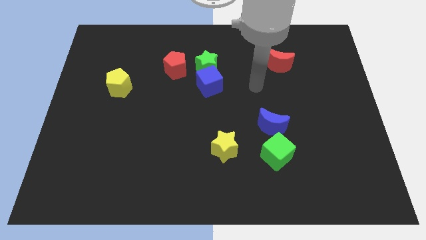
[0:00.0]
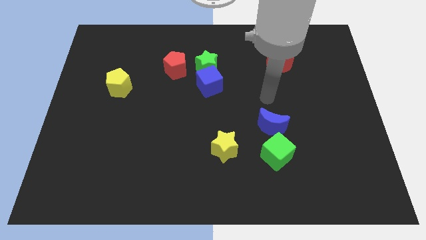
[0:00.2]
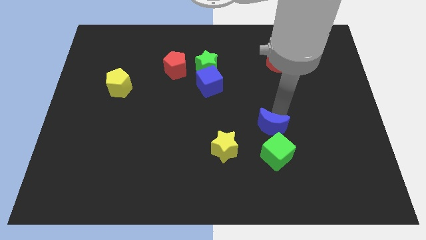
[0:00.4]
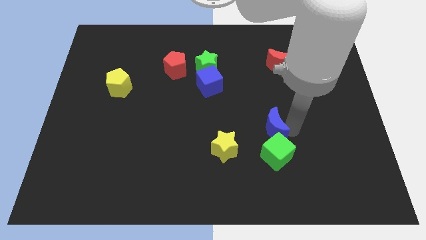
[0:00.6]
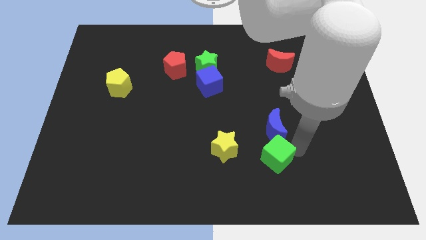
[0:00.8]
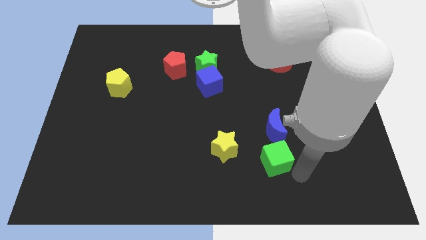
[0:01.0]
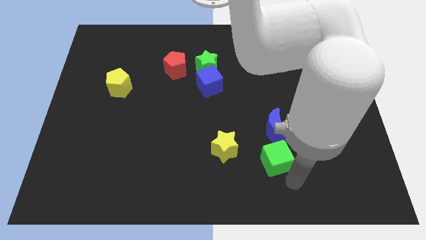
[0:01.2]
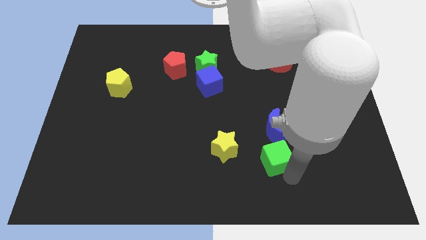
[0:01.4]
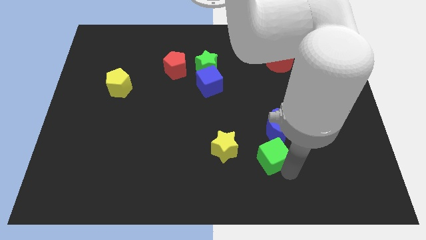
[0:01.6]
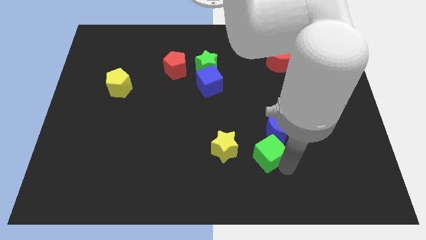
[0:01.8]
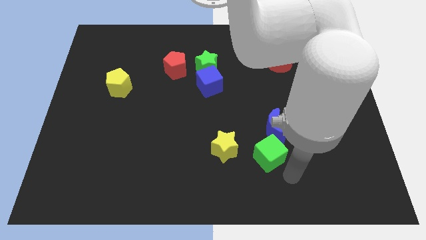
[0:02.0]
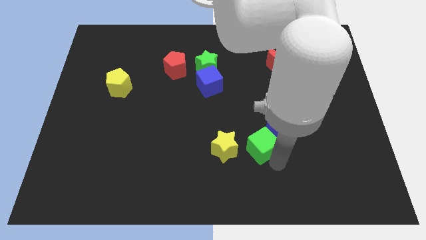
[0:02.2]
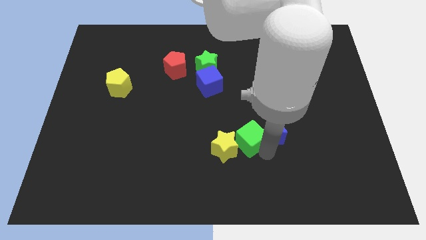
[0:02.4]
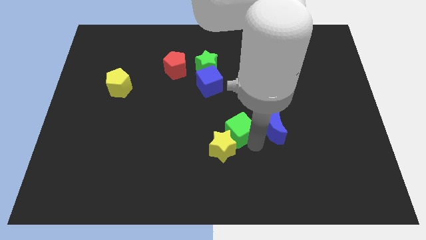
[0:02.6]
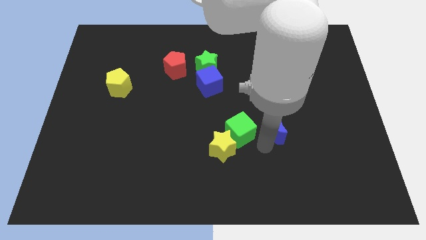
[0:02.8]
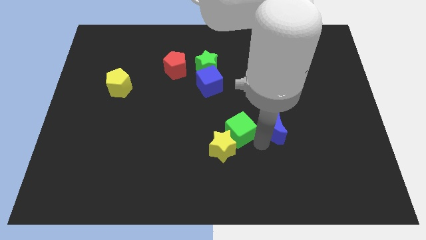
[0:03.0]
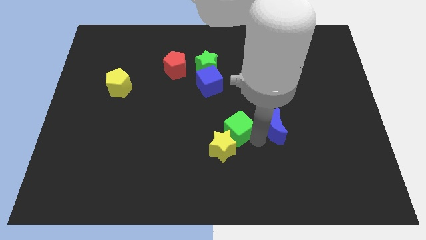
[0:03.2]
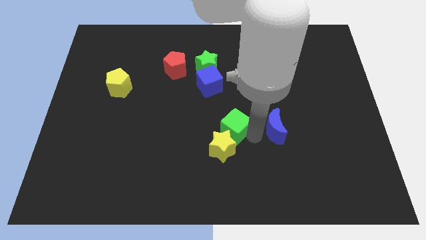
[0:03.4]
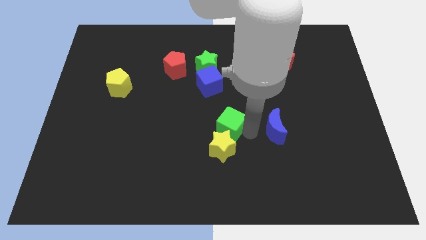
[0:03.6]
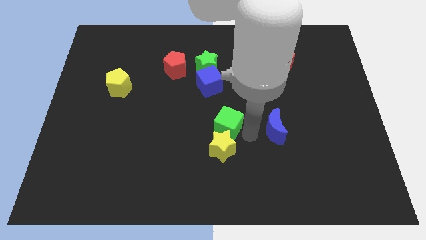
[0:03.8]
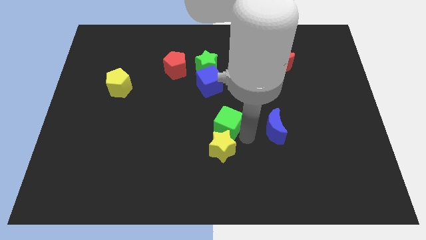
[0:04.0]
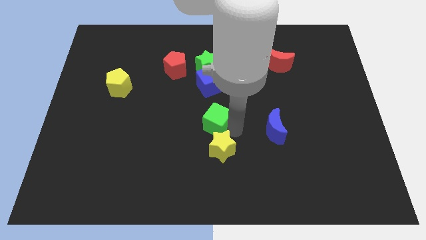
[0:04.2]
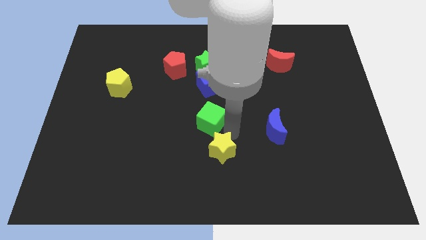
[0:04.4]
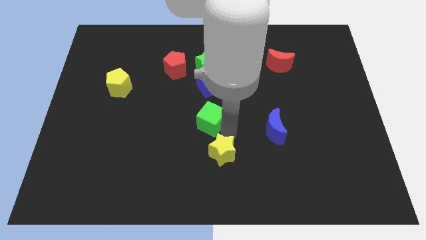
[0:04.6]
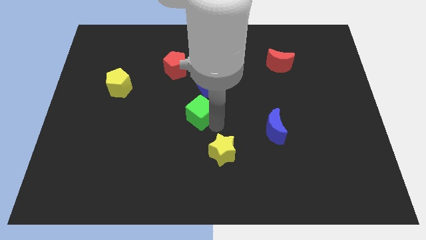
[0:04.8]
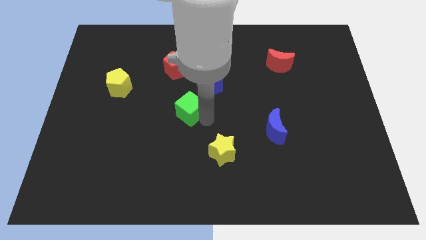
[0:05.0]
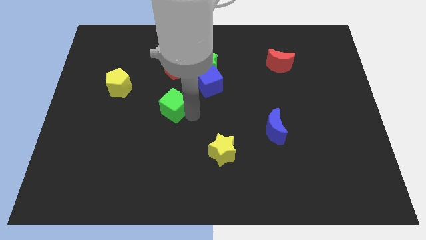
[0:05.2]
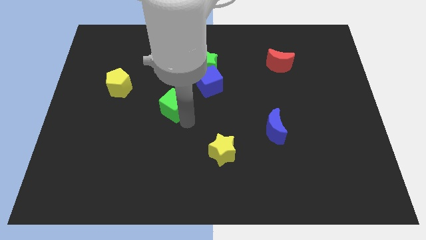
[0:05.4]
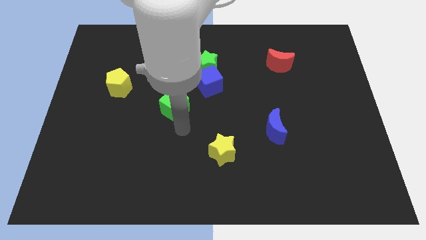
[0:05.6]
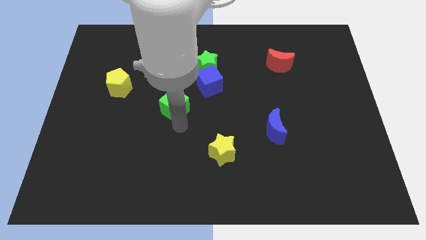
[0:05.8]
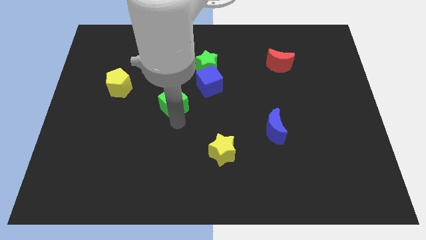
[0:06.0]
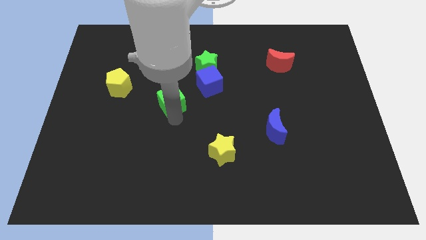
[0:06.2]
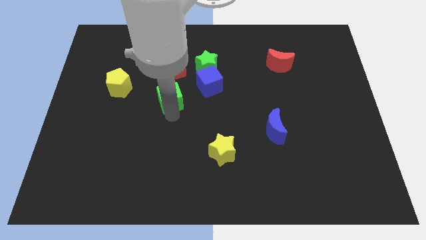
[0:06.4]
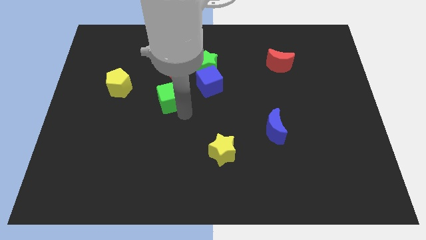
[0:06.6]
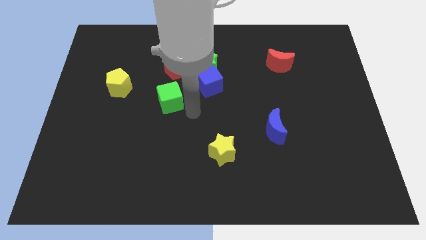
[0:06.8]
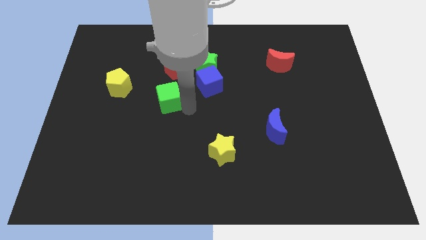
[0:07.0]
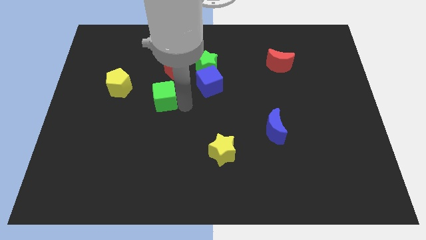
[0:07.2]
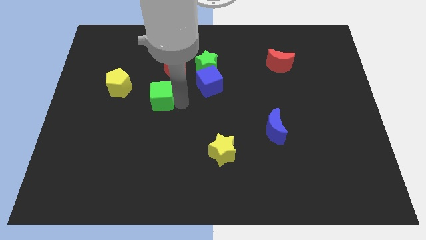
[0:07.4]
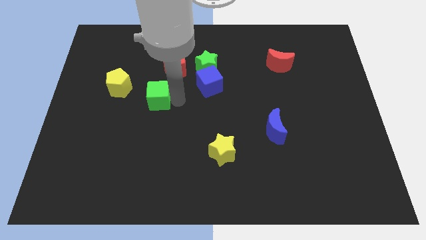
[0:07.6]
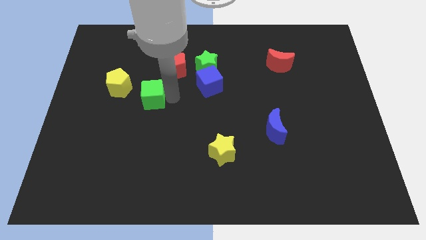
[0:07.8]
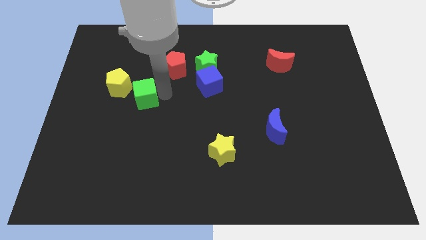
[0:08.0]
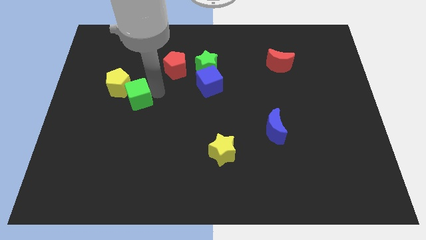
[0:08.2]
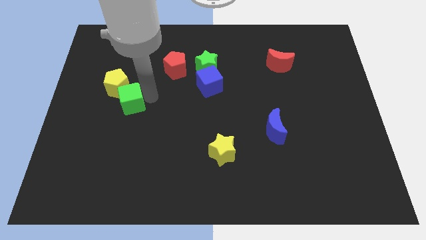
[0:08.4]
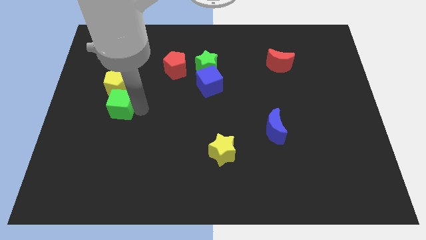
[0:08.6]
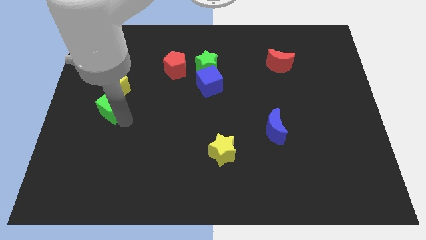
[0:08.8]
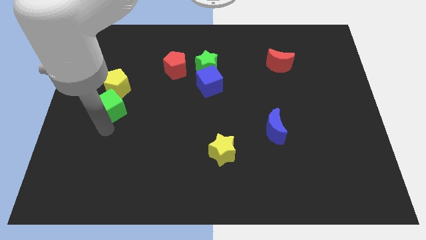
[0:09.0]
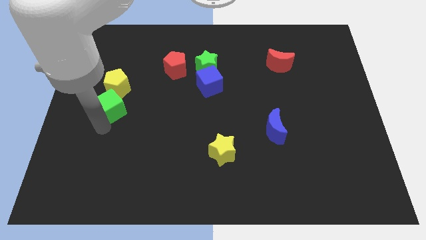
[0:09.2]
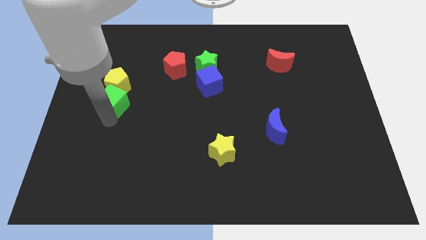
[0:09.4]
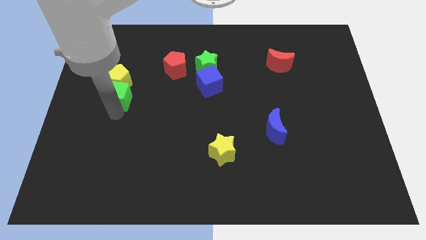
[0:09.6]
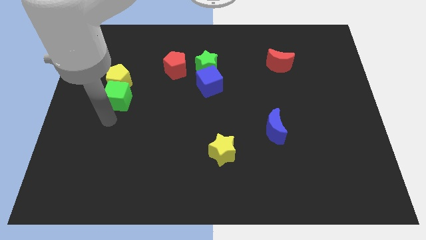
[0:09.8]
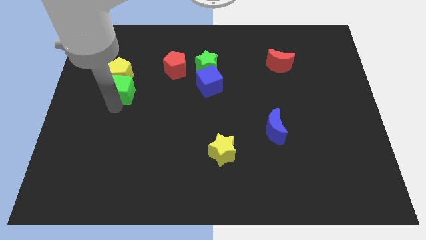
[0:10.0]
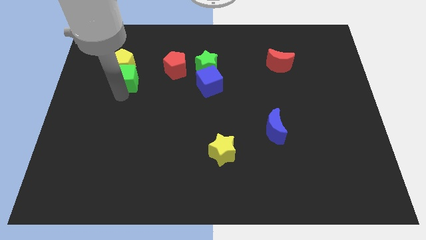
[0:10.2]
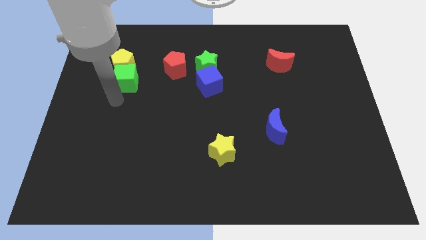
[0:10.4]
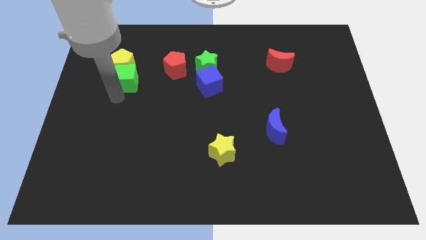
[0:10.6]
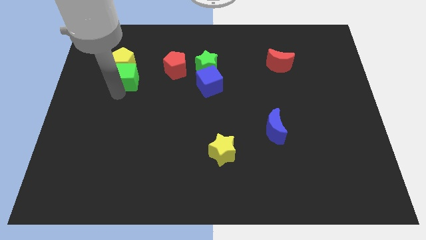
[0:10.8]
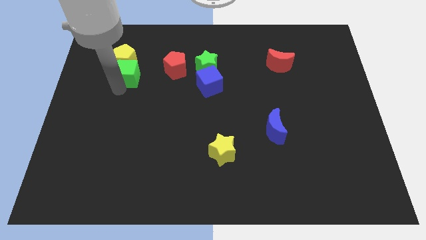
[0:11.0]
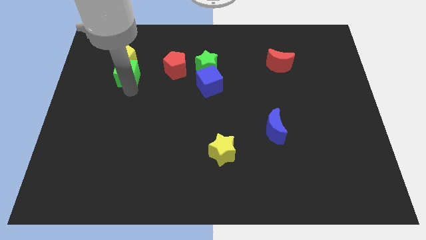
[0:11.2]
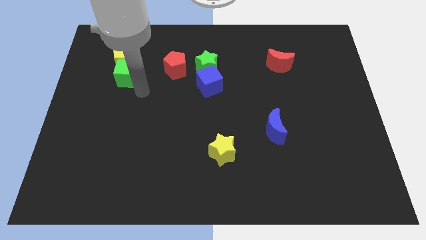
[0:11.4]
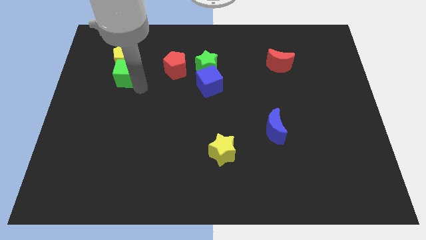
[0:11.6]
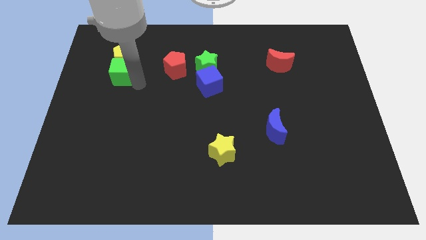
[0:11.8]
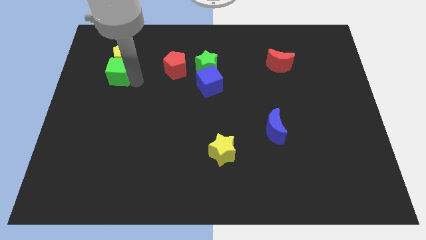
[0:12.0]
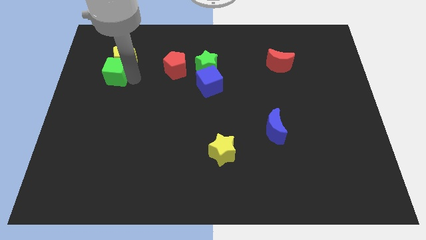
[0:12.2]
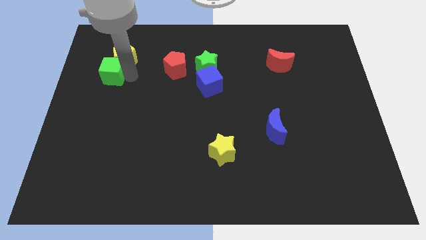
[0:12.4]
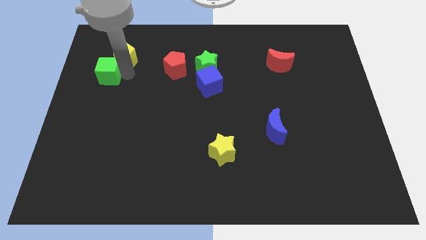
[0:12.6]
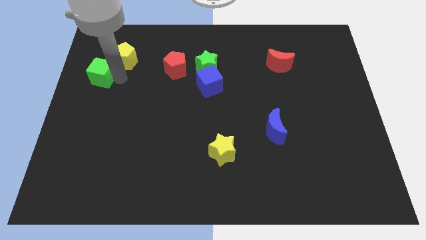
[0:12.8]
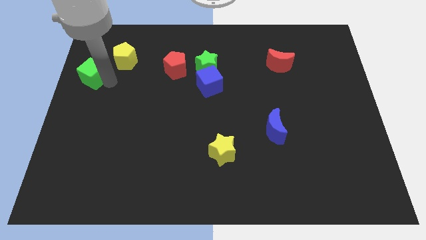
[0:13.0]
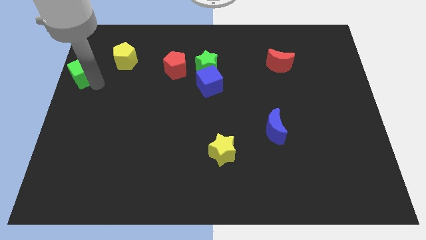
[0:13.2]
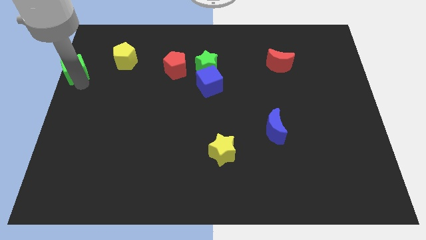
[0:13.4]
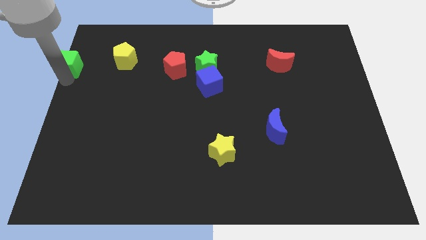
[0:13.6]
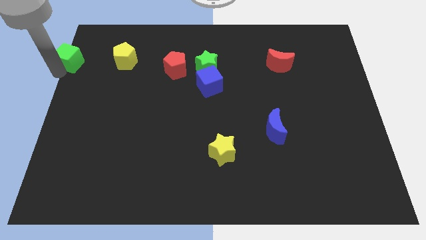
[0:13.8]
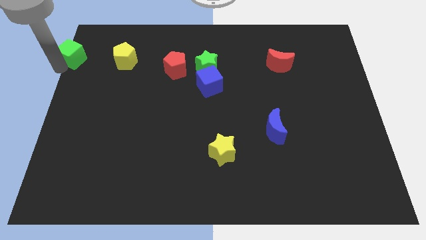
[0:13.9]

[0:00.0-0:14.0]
put the green cube to the top left corner
